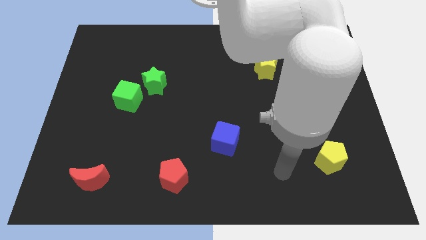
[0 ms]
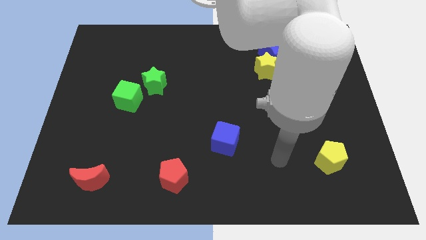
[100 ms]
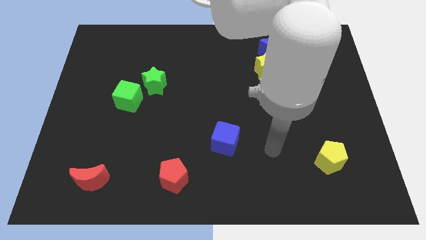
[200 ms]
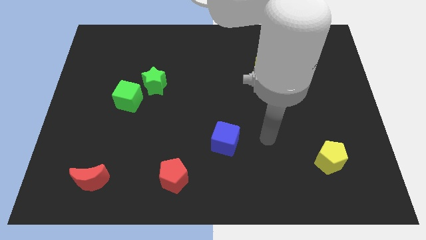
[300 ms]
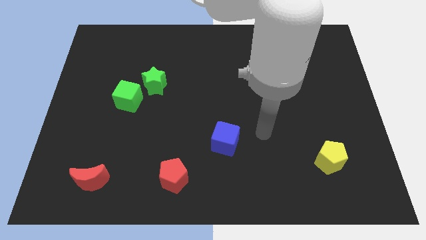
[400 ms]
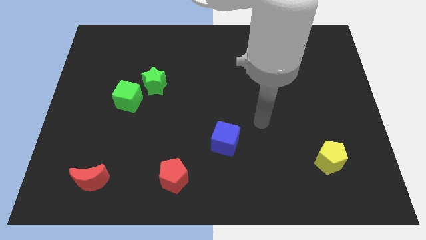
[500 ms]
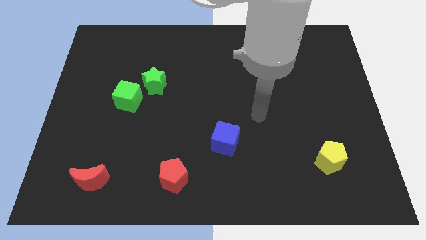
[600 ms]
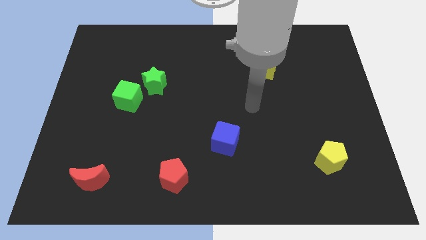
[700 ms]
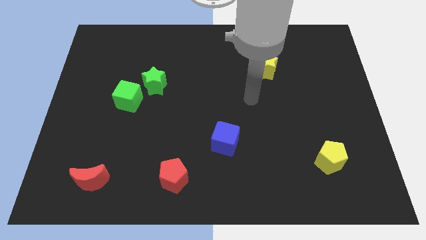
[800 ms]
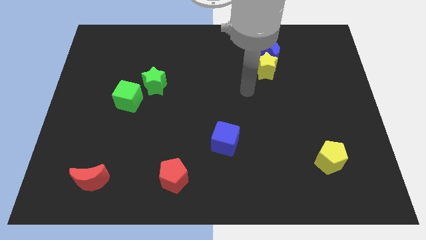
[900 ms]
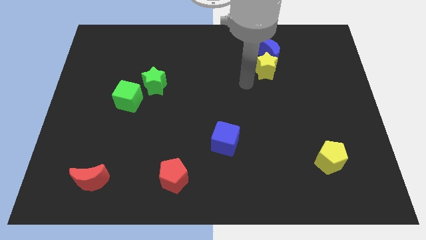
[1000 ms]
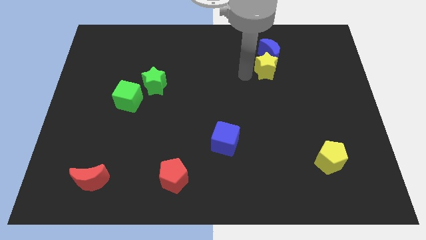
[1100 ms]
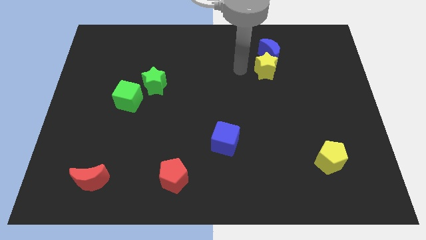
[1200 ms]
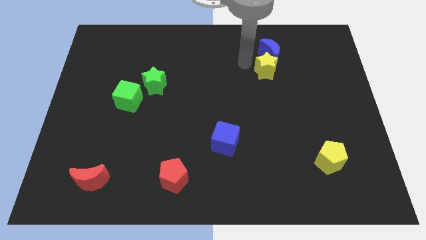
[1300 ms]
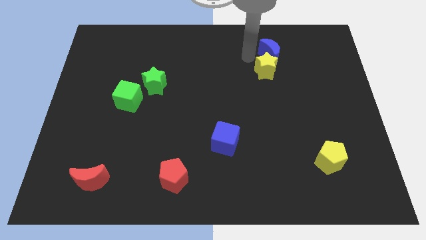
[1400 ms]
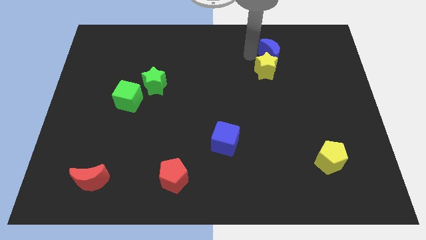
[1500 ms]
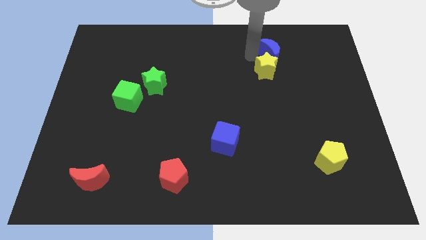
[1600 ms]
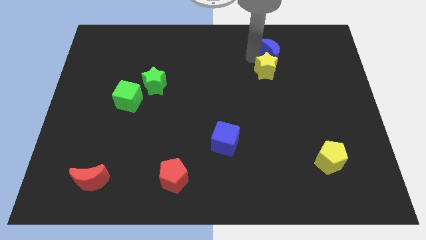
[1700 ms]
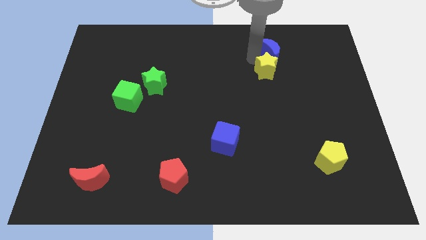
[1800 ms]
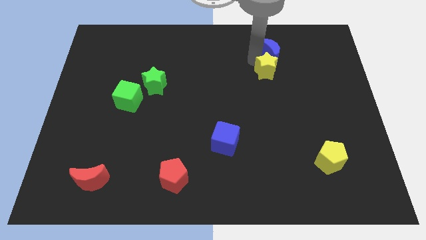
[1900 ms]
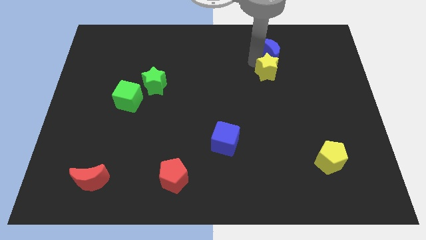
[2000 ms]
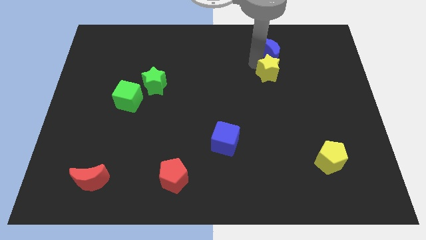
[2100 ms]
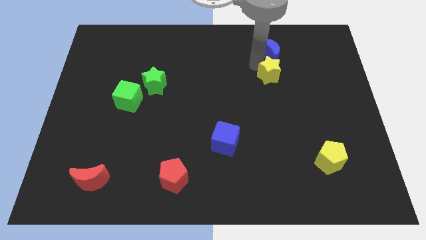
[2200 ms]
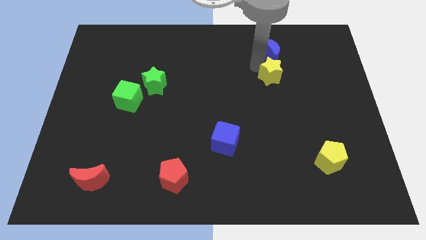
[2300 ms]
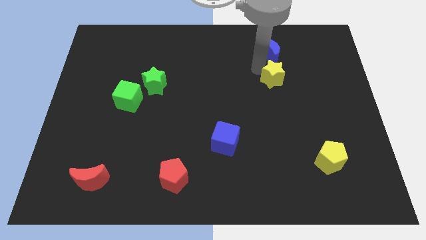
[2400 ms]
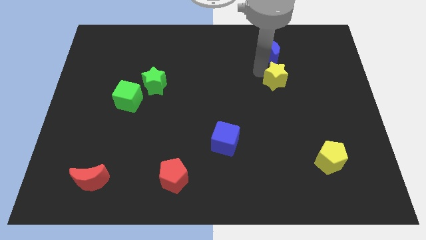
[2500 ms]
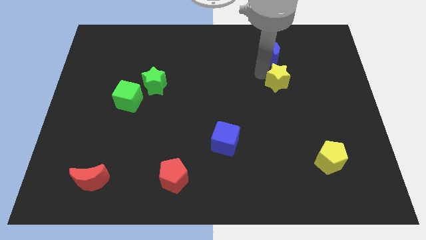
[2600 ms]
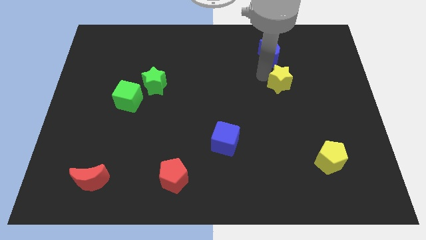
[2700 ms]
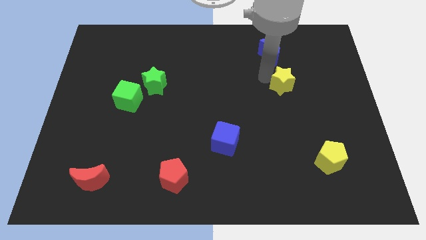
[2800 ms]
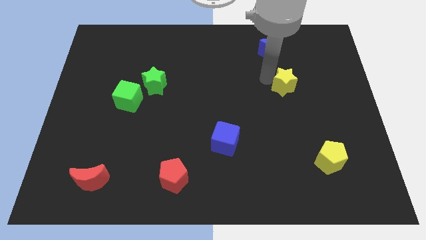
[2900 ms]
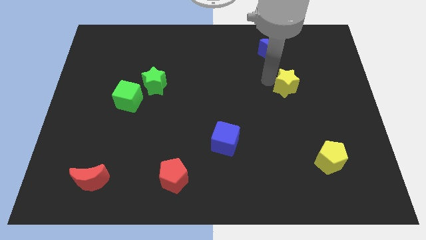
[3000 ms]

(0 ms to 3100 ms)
slide the yellow star slightly down and right diagonally

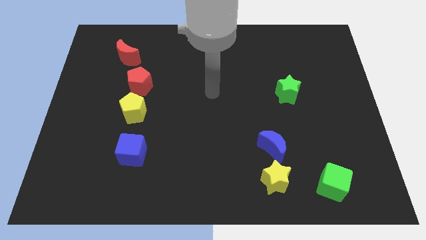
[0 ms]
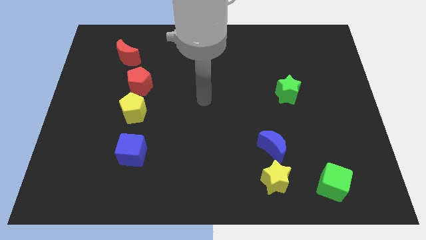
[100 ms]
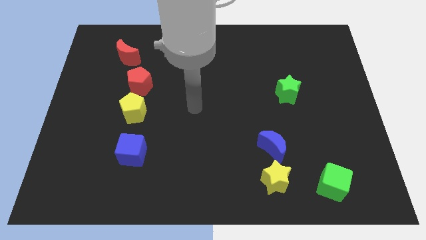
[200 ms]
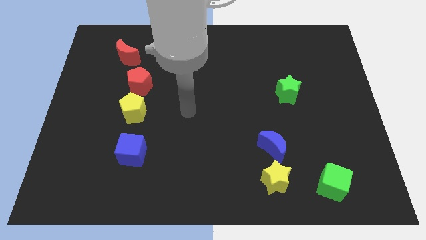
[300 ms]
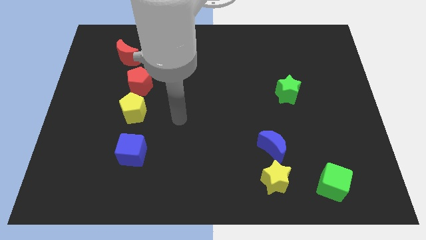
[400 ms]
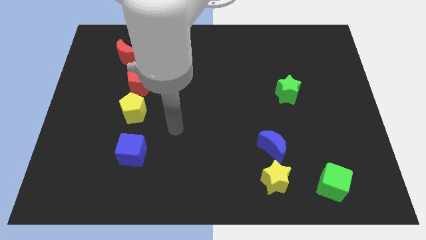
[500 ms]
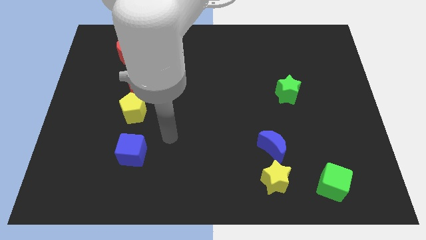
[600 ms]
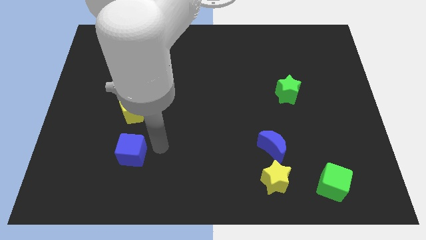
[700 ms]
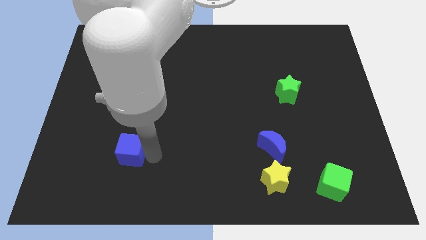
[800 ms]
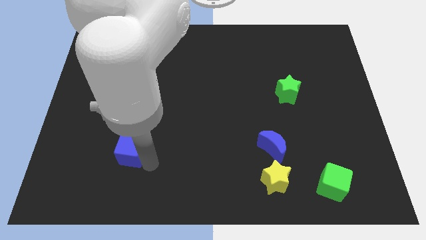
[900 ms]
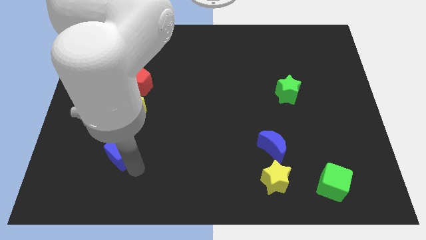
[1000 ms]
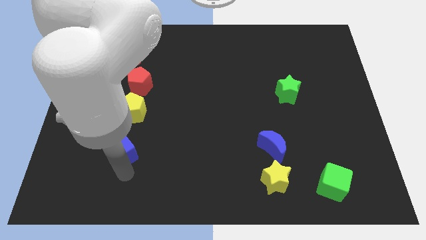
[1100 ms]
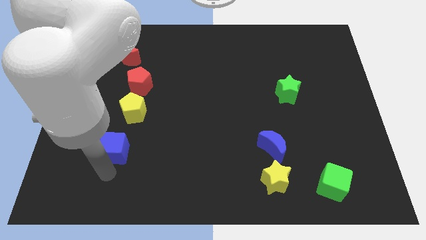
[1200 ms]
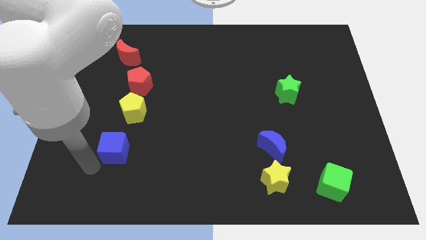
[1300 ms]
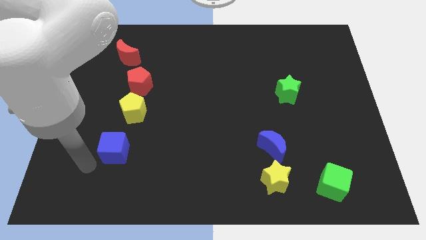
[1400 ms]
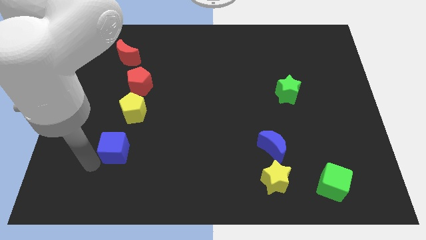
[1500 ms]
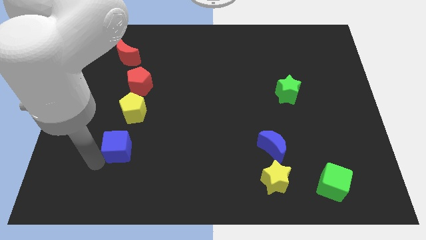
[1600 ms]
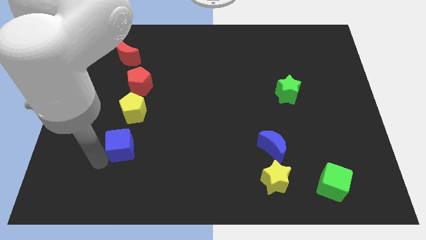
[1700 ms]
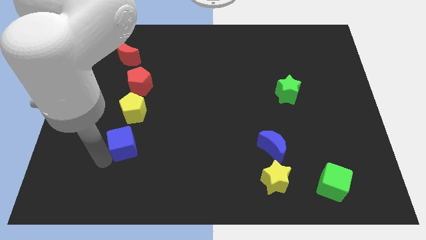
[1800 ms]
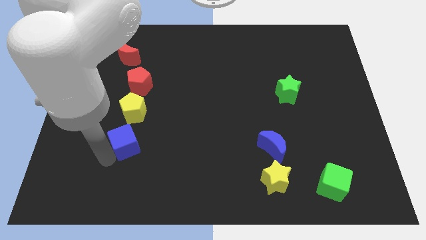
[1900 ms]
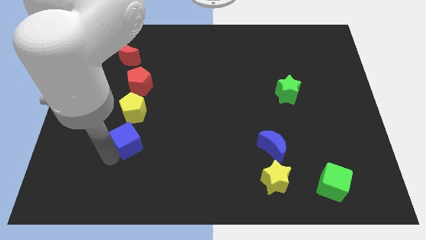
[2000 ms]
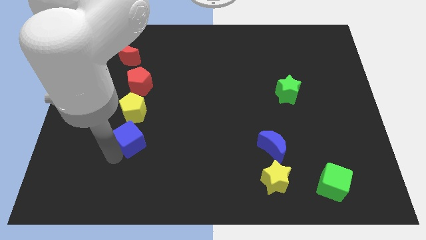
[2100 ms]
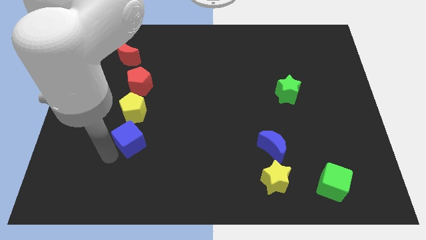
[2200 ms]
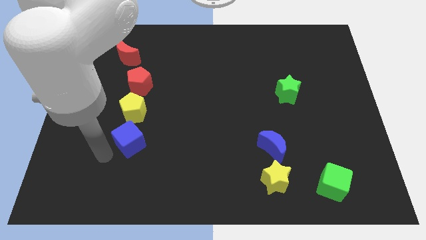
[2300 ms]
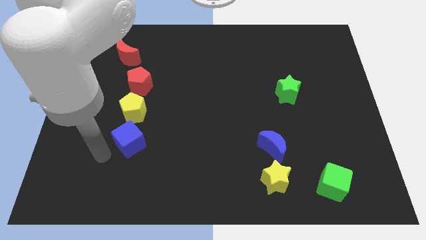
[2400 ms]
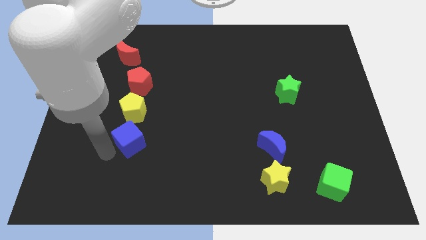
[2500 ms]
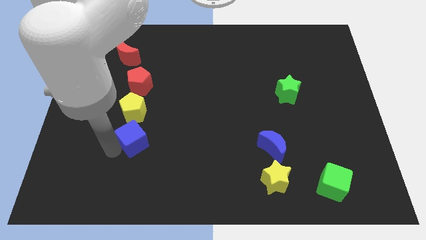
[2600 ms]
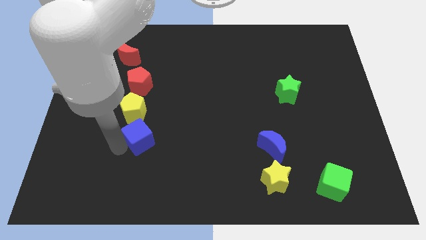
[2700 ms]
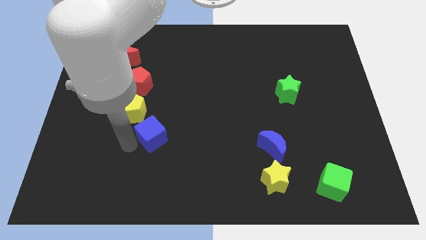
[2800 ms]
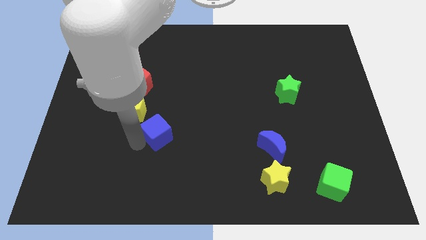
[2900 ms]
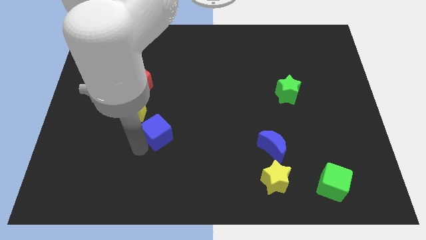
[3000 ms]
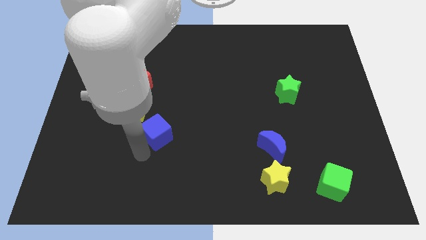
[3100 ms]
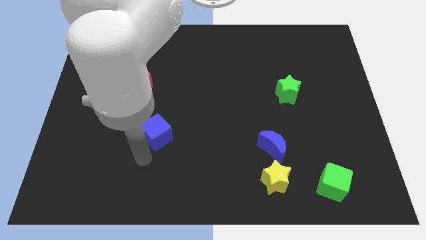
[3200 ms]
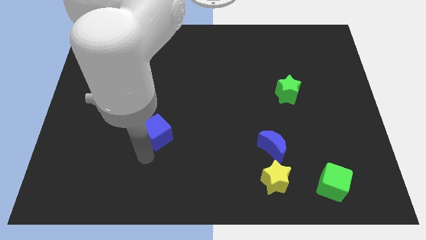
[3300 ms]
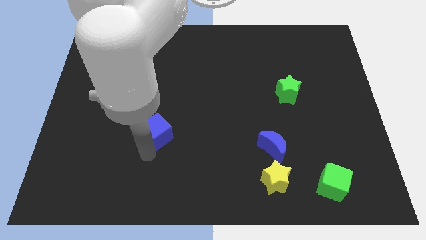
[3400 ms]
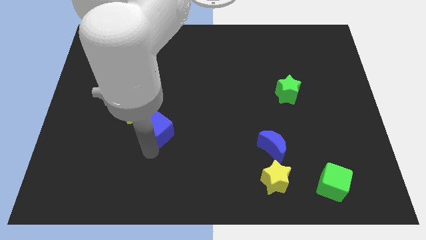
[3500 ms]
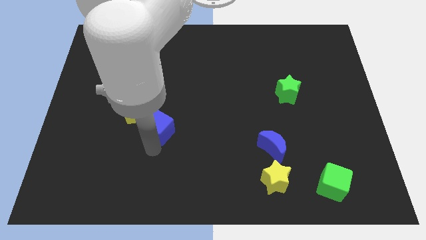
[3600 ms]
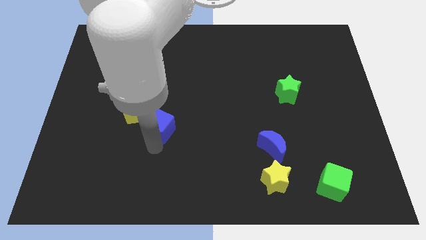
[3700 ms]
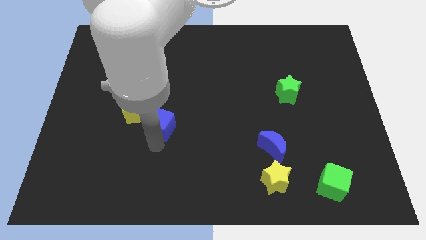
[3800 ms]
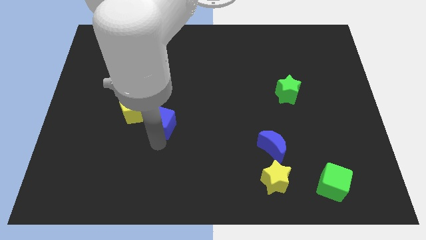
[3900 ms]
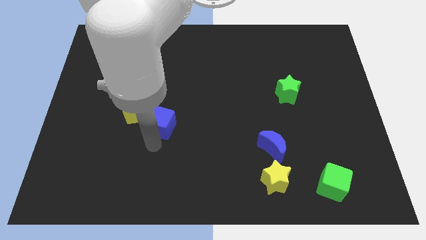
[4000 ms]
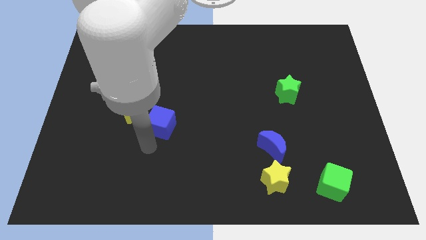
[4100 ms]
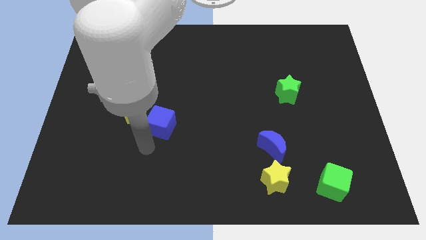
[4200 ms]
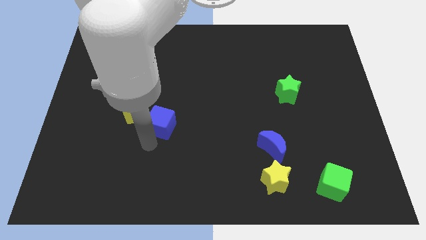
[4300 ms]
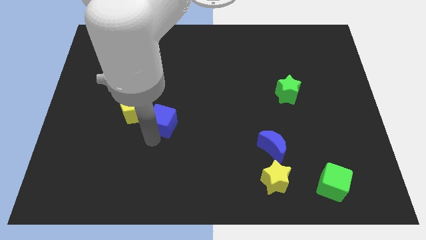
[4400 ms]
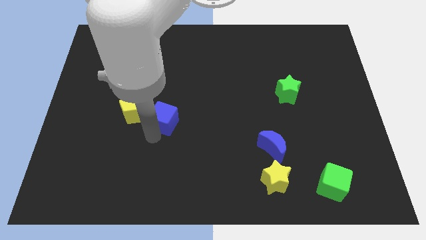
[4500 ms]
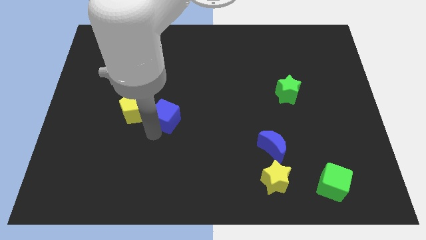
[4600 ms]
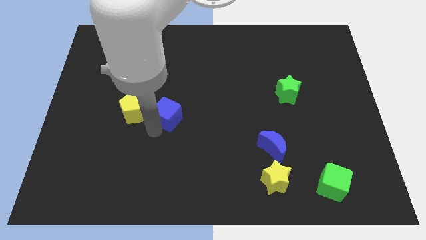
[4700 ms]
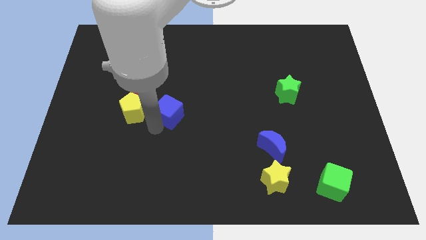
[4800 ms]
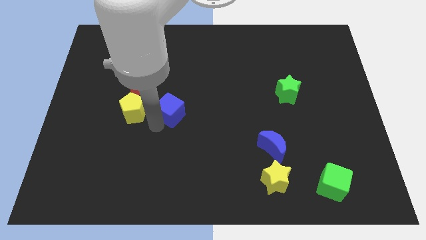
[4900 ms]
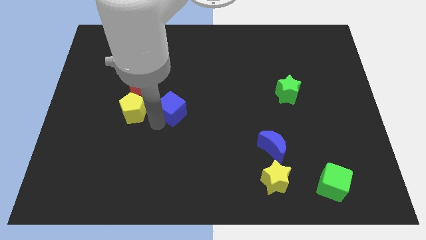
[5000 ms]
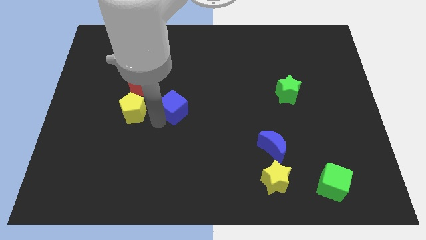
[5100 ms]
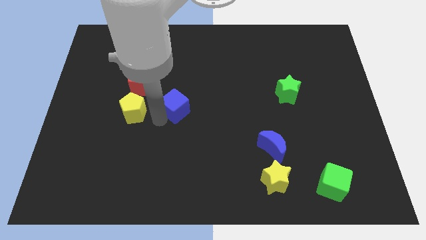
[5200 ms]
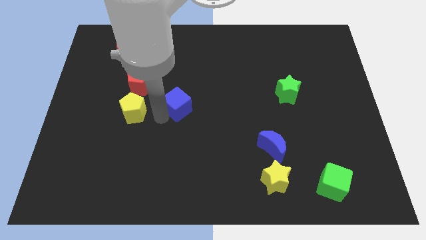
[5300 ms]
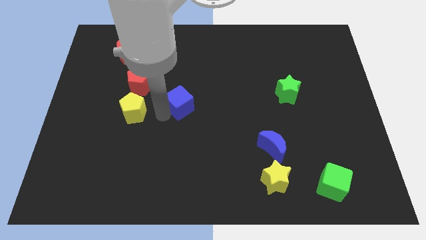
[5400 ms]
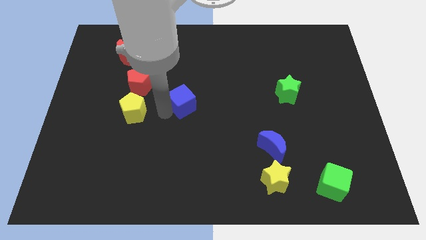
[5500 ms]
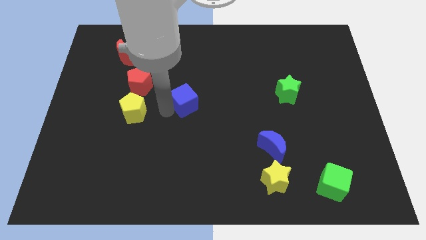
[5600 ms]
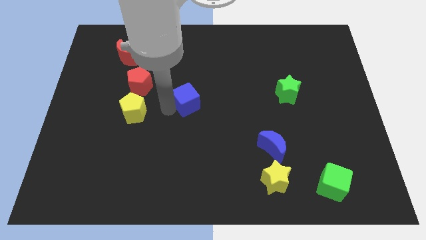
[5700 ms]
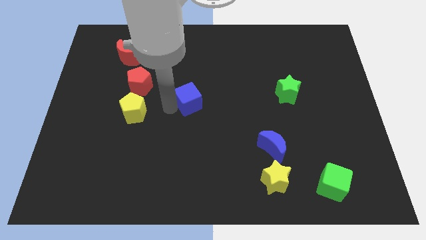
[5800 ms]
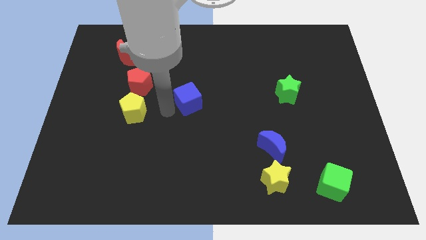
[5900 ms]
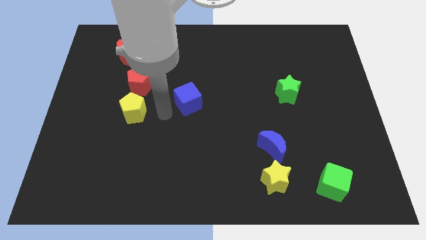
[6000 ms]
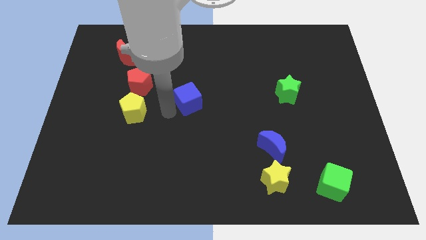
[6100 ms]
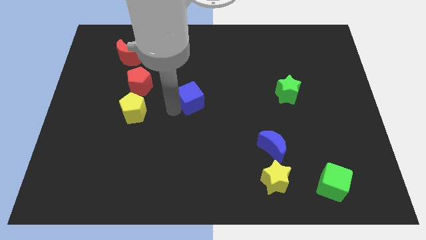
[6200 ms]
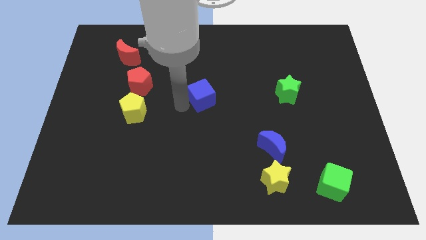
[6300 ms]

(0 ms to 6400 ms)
move the blue cube up and then right
